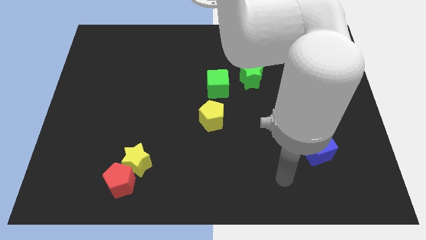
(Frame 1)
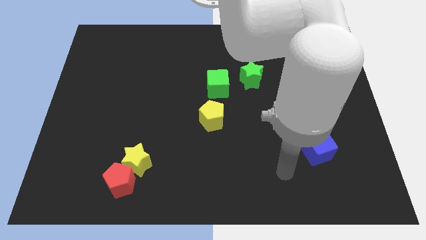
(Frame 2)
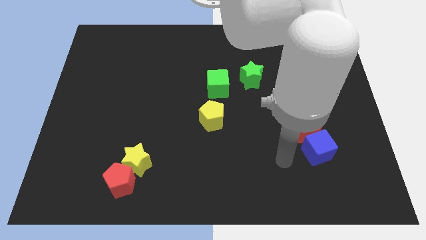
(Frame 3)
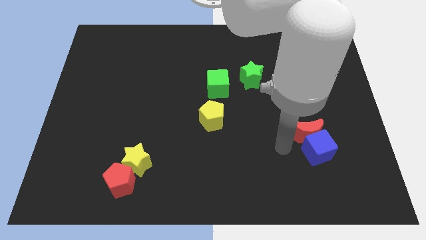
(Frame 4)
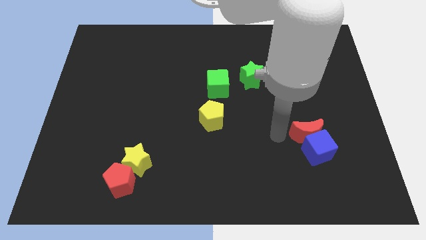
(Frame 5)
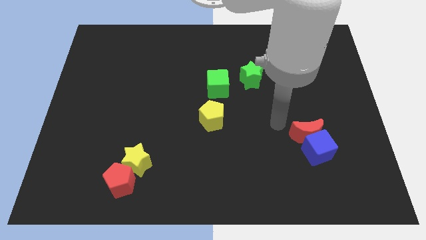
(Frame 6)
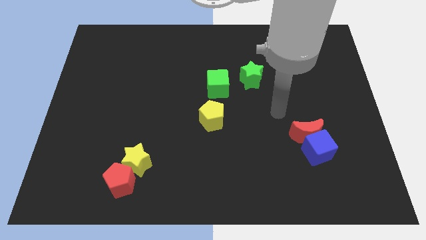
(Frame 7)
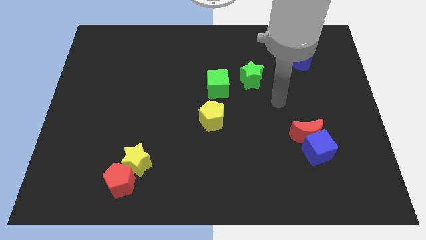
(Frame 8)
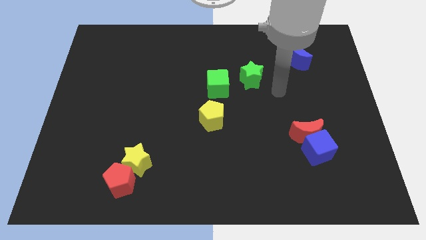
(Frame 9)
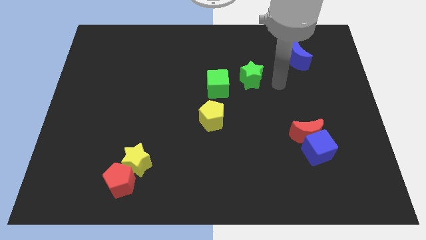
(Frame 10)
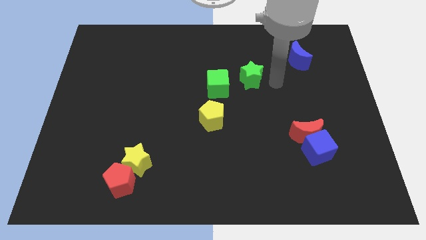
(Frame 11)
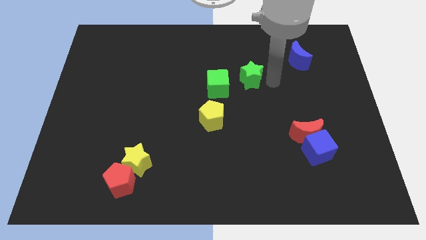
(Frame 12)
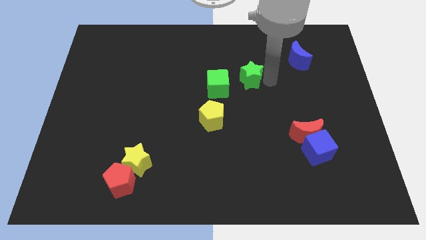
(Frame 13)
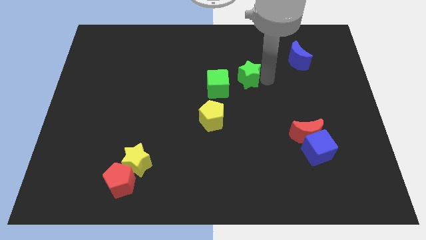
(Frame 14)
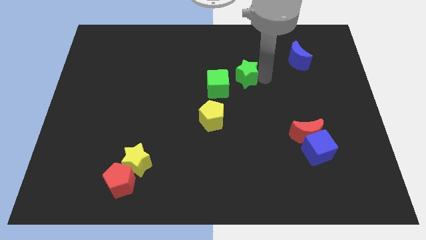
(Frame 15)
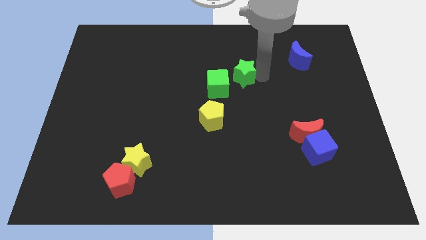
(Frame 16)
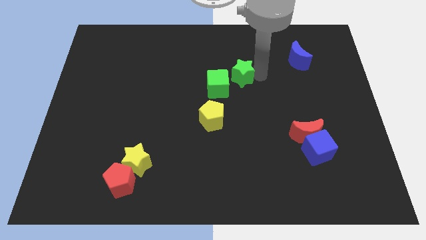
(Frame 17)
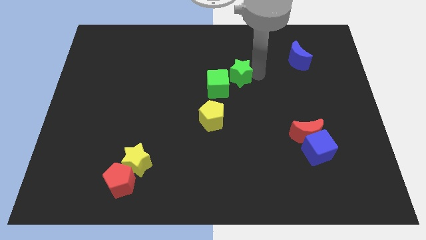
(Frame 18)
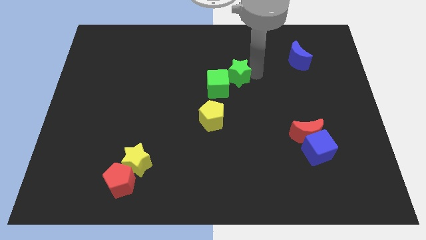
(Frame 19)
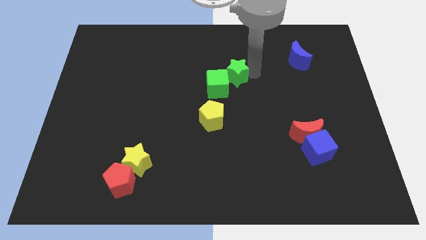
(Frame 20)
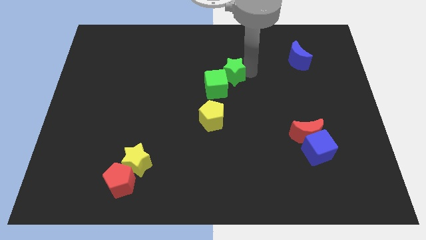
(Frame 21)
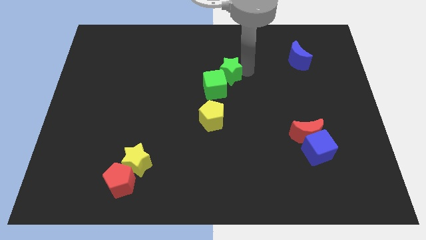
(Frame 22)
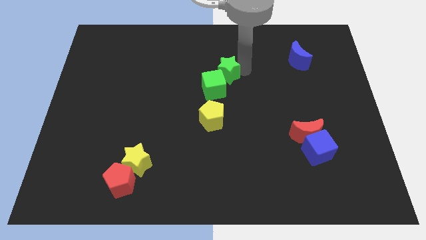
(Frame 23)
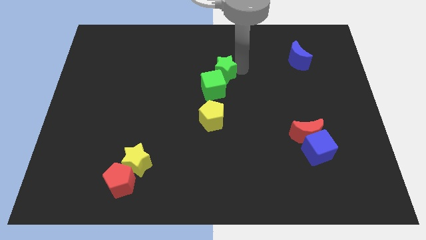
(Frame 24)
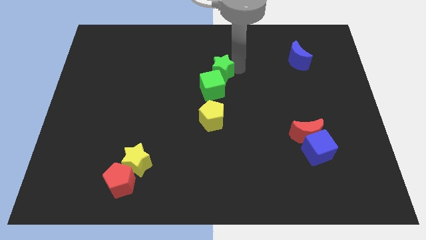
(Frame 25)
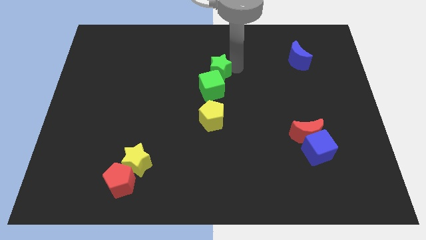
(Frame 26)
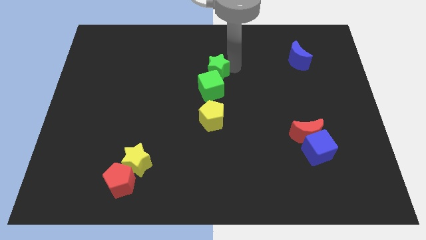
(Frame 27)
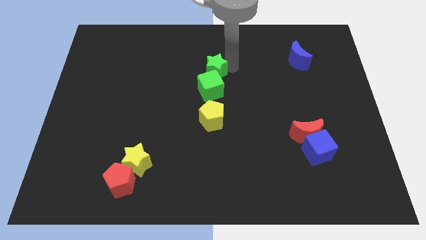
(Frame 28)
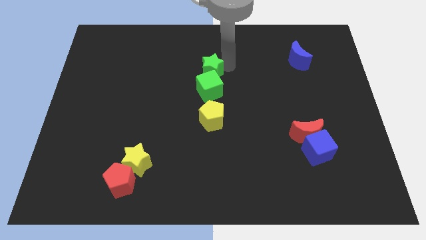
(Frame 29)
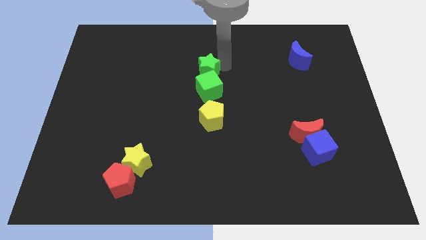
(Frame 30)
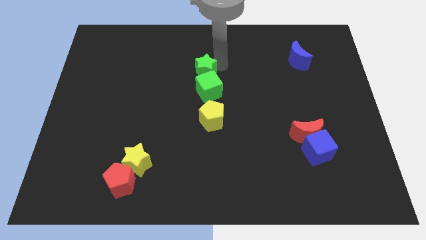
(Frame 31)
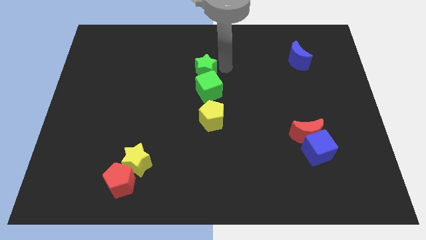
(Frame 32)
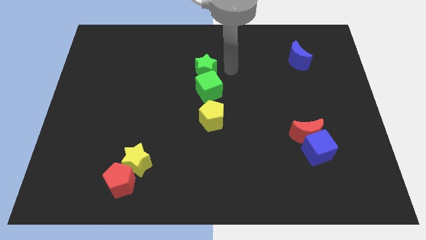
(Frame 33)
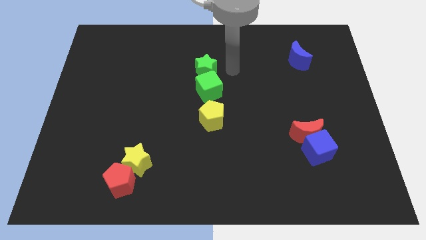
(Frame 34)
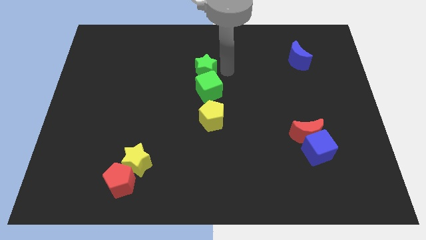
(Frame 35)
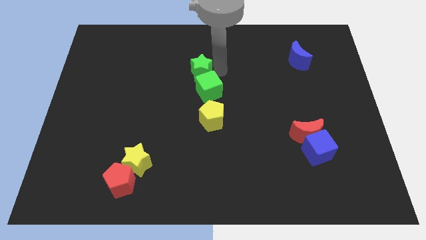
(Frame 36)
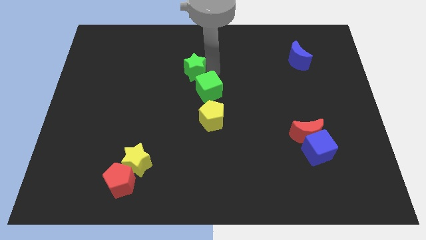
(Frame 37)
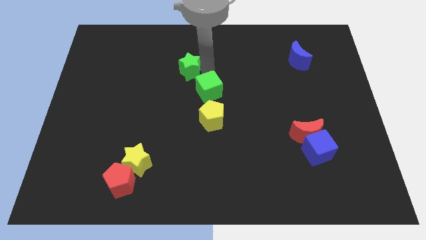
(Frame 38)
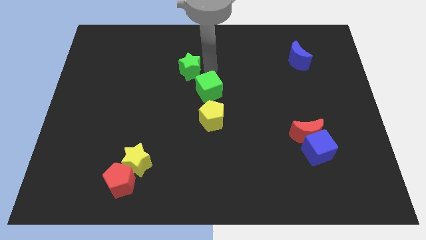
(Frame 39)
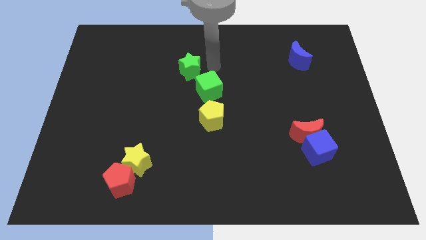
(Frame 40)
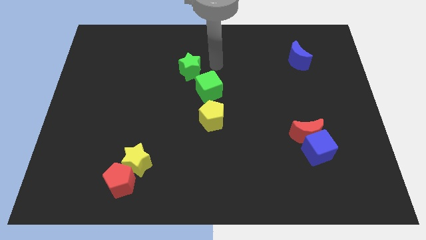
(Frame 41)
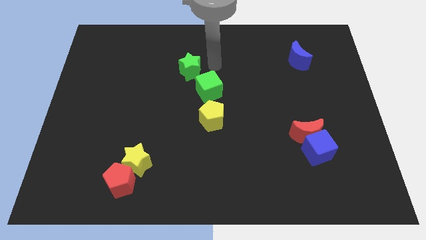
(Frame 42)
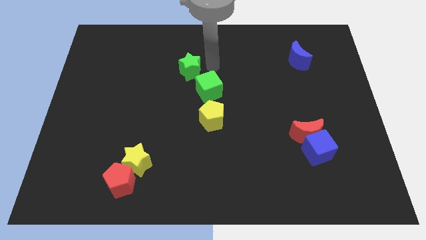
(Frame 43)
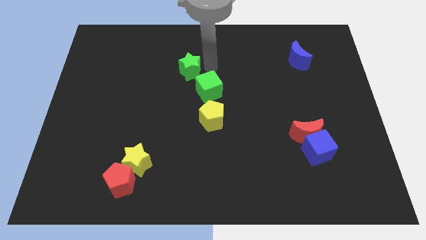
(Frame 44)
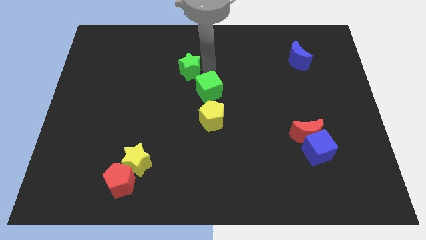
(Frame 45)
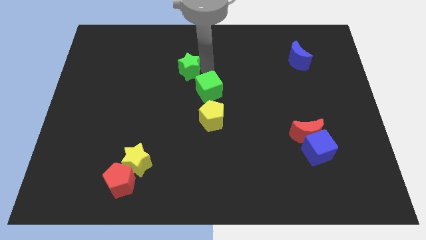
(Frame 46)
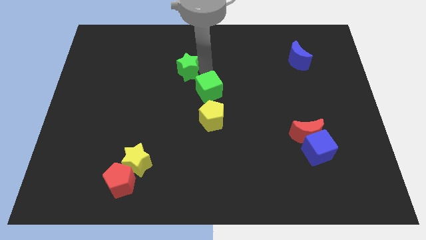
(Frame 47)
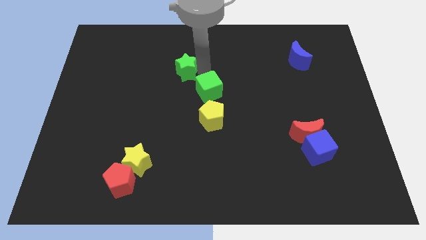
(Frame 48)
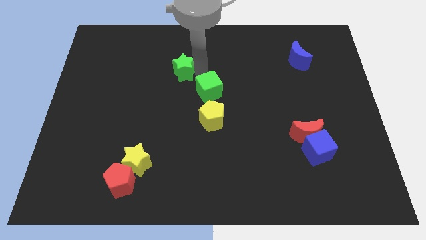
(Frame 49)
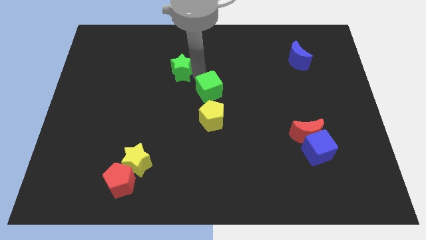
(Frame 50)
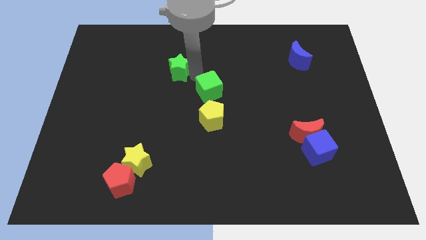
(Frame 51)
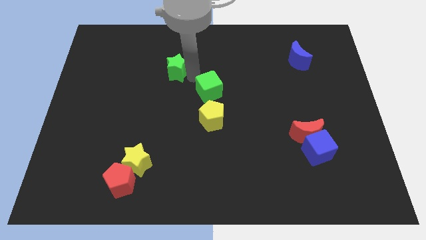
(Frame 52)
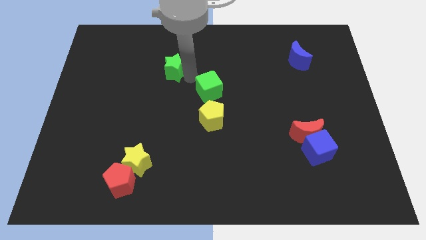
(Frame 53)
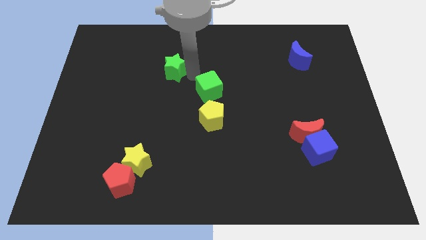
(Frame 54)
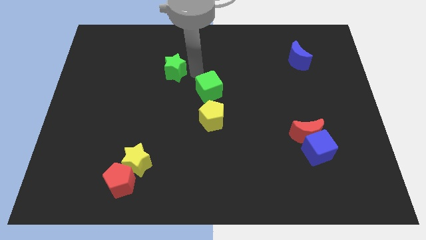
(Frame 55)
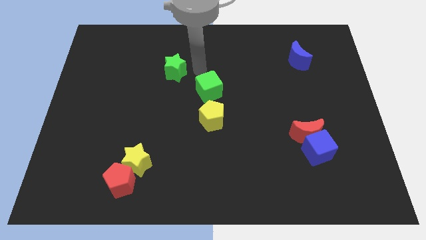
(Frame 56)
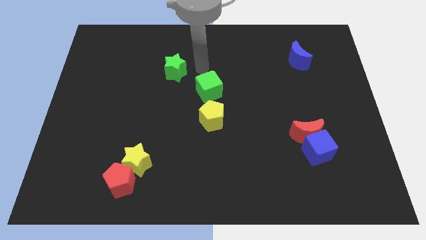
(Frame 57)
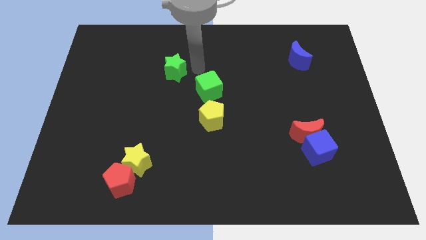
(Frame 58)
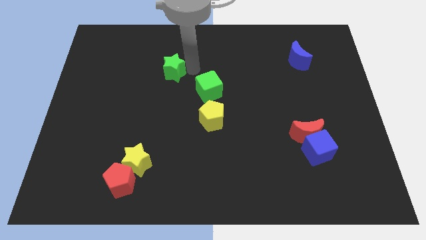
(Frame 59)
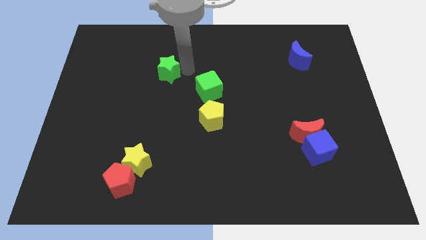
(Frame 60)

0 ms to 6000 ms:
move the green star to the left

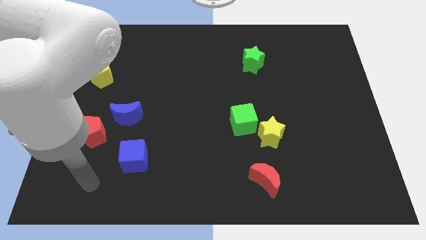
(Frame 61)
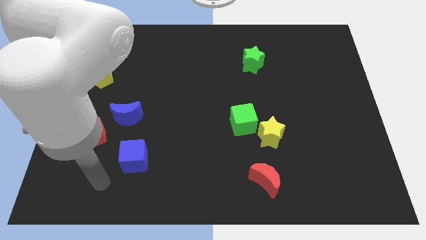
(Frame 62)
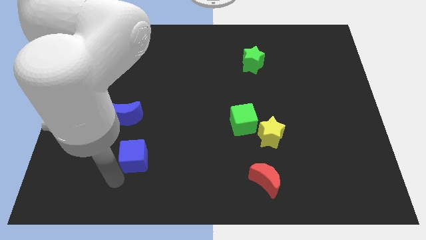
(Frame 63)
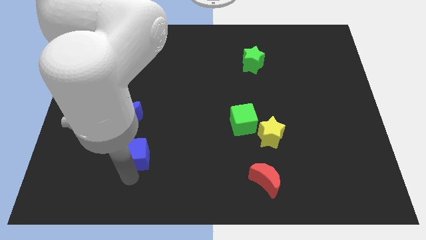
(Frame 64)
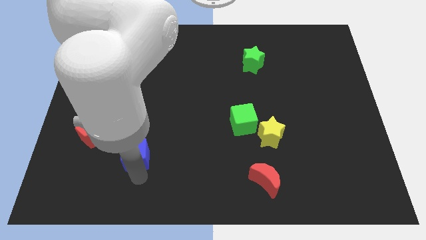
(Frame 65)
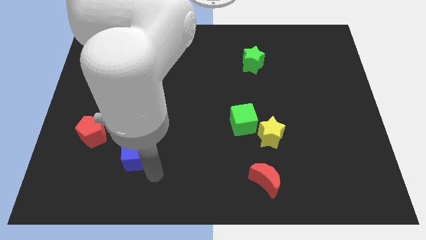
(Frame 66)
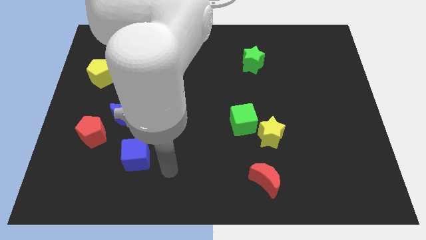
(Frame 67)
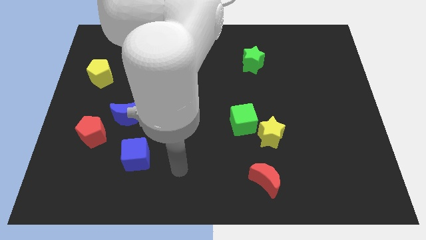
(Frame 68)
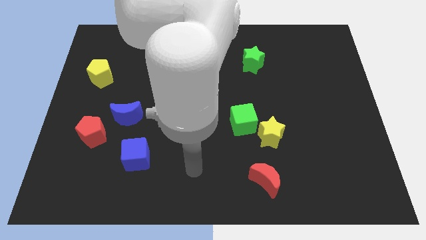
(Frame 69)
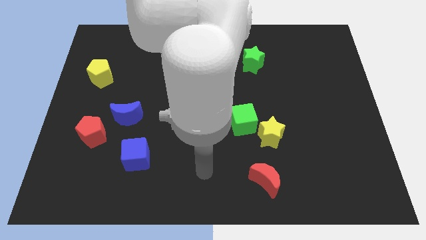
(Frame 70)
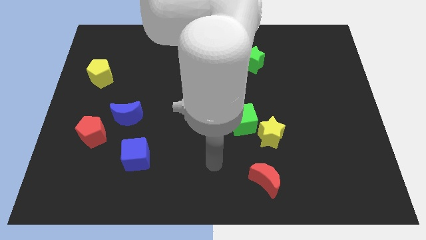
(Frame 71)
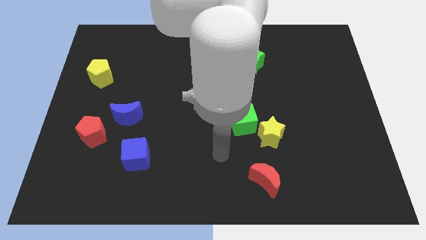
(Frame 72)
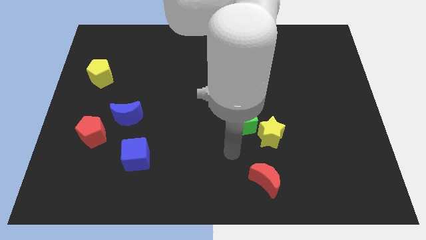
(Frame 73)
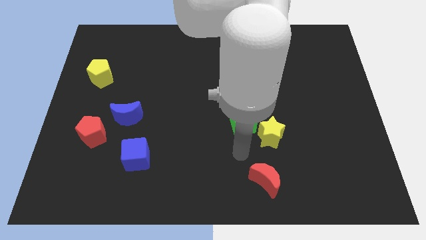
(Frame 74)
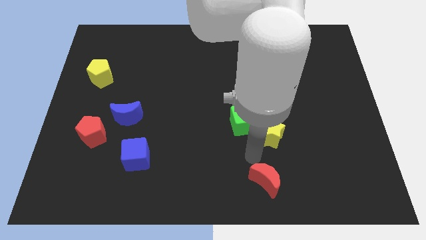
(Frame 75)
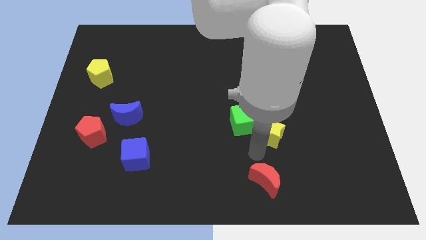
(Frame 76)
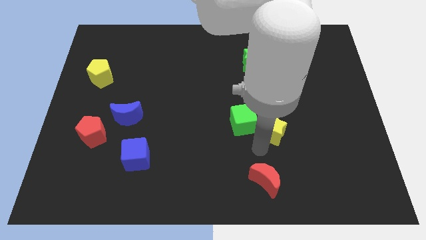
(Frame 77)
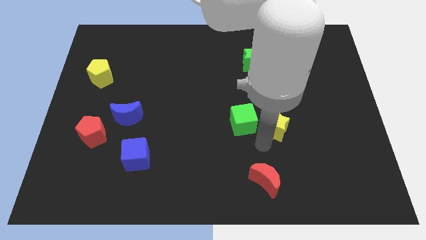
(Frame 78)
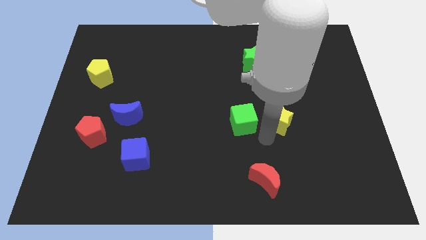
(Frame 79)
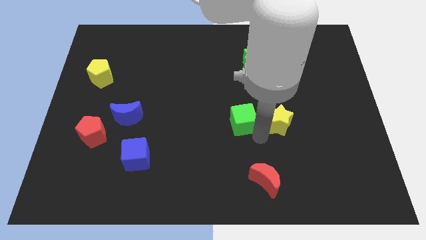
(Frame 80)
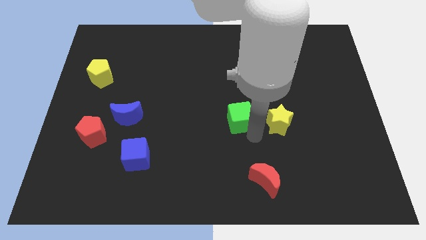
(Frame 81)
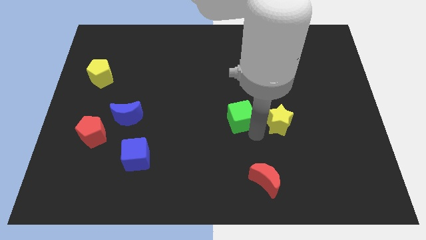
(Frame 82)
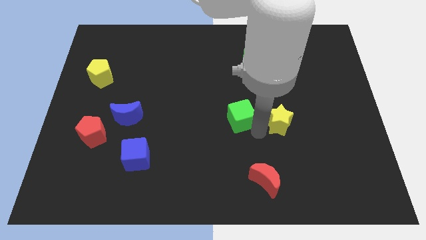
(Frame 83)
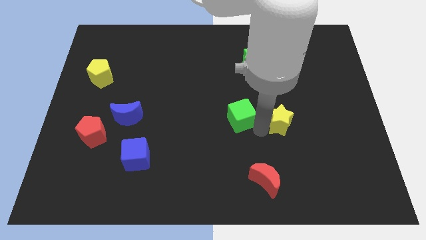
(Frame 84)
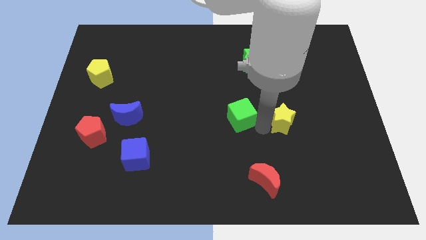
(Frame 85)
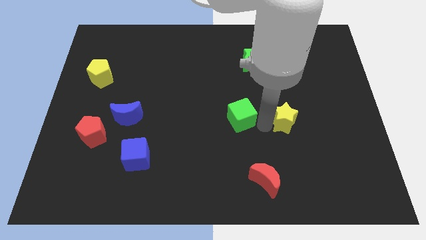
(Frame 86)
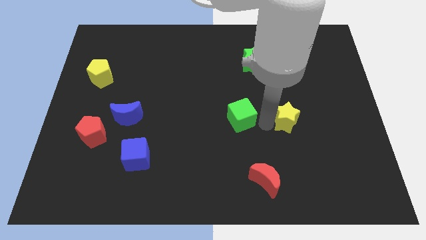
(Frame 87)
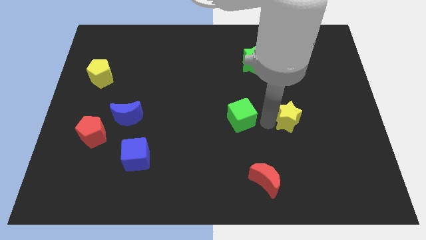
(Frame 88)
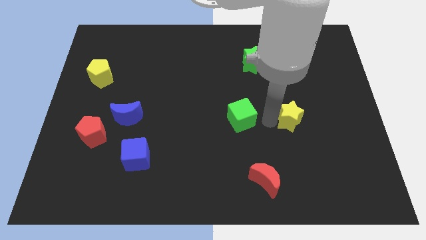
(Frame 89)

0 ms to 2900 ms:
push the yellow star upwards and right diagonally somewhat
